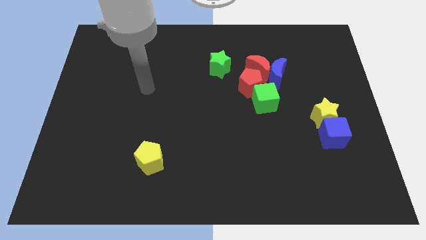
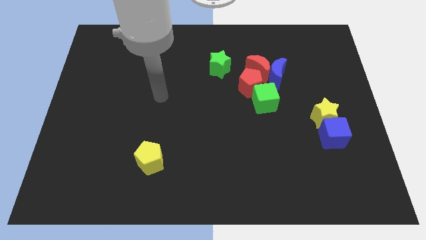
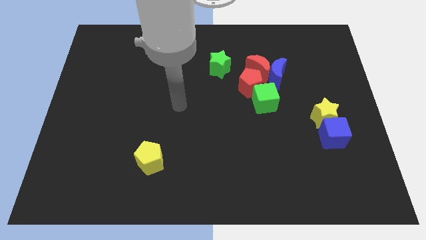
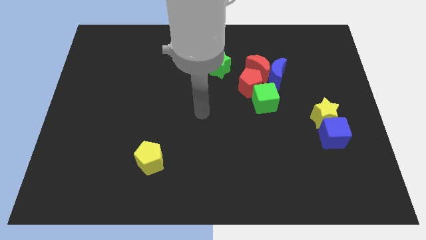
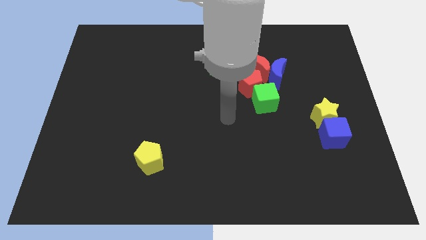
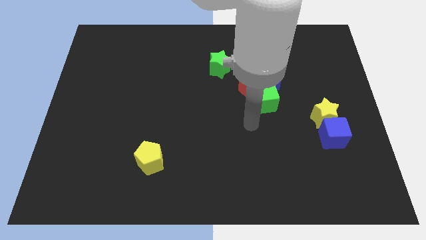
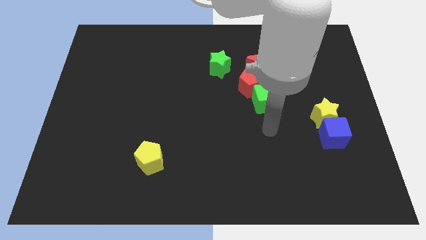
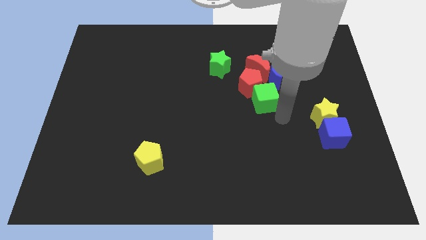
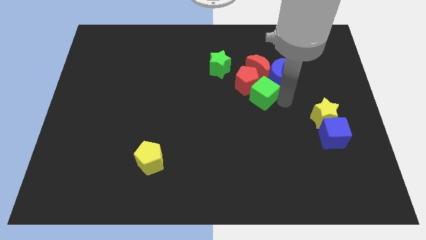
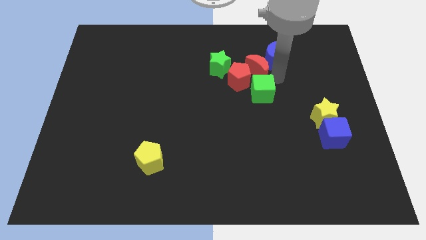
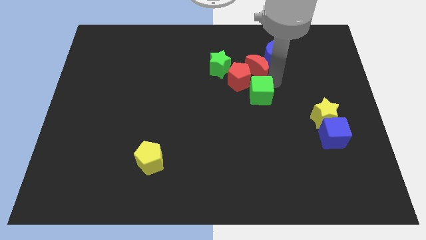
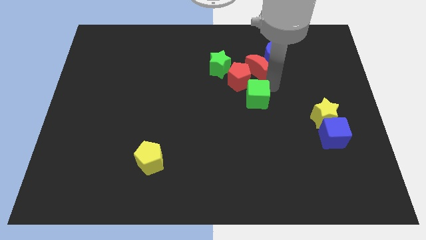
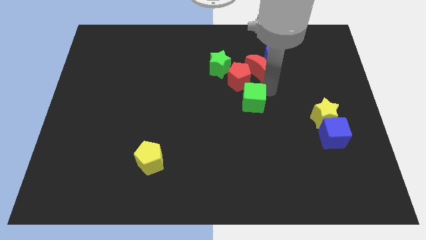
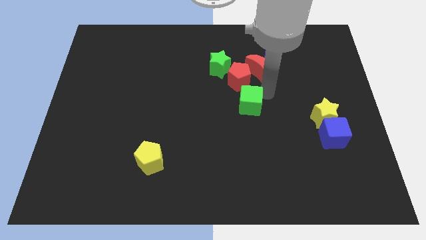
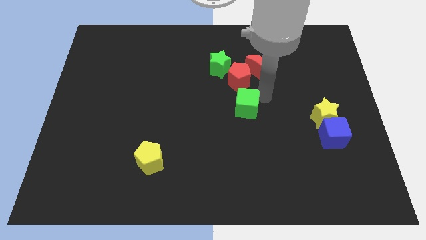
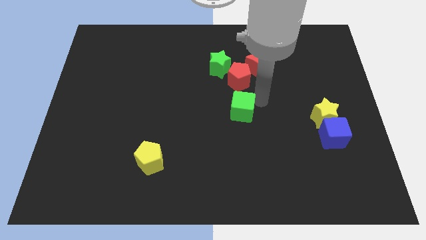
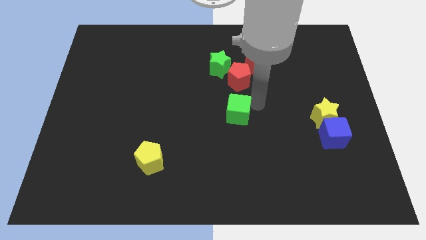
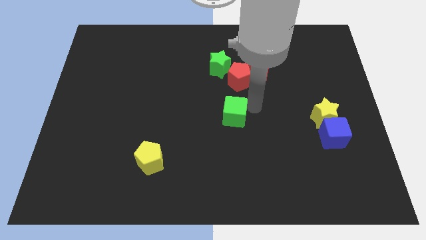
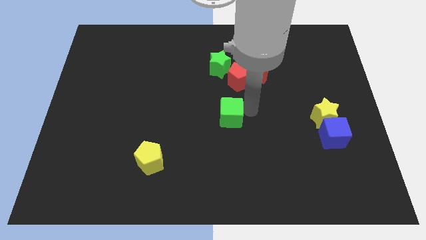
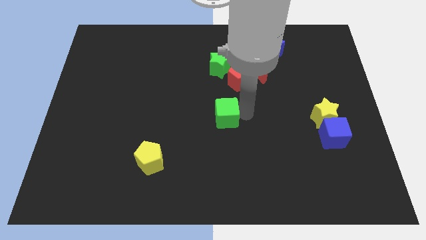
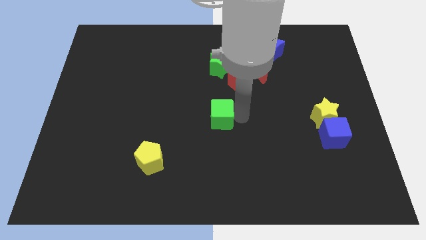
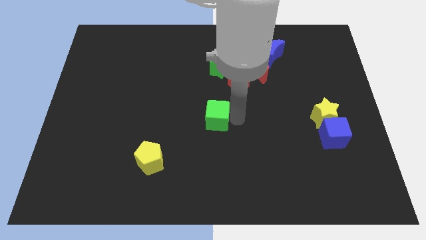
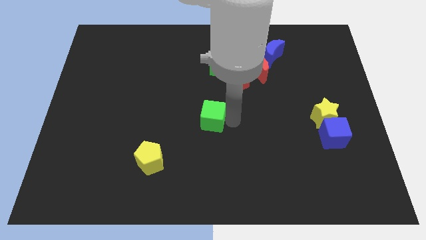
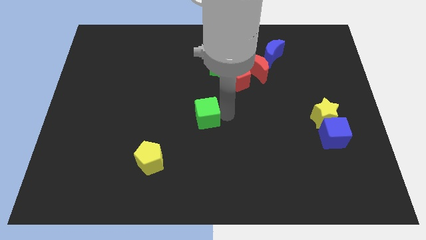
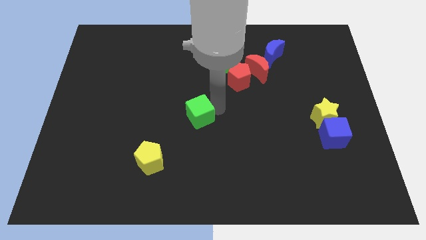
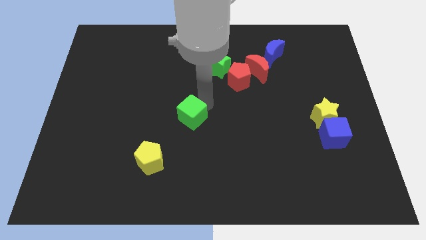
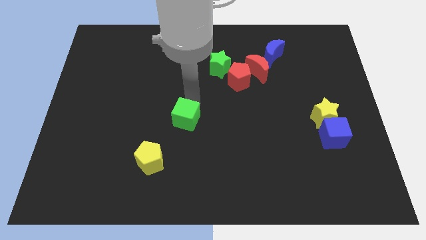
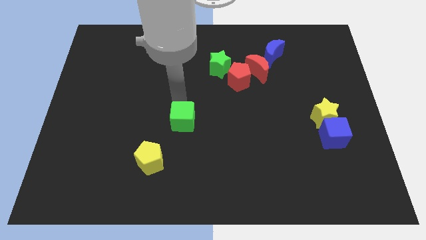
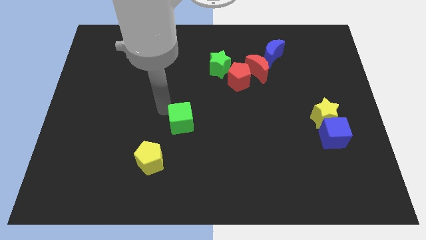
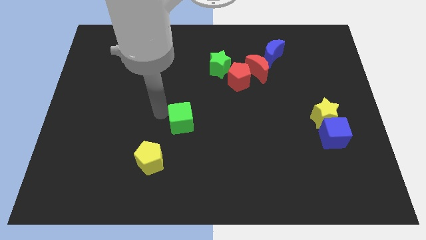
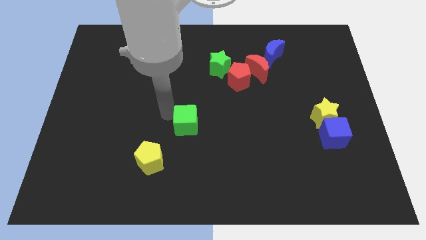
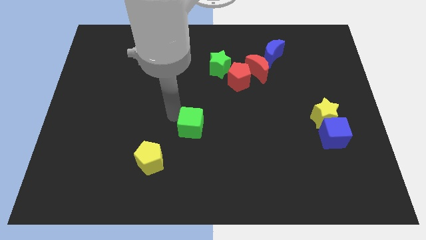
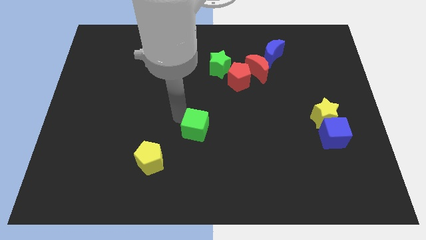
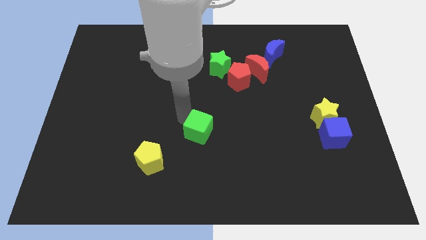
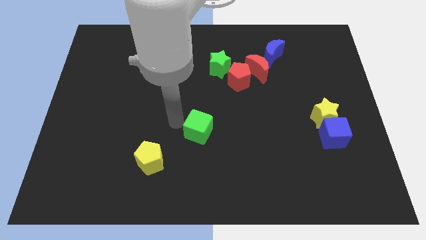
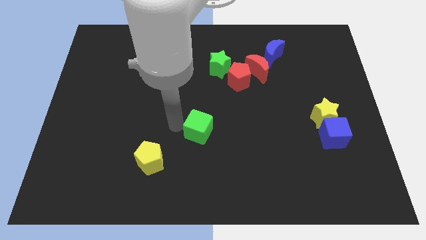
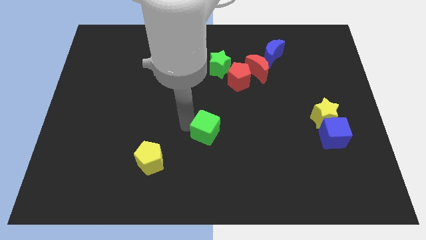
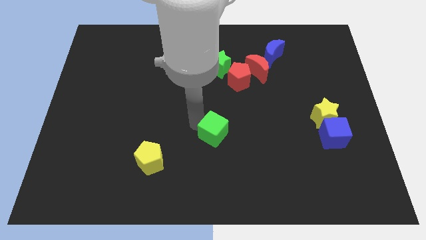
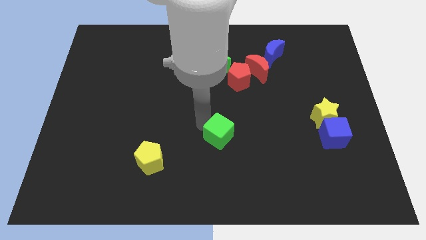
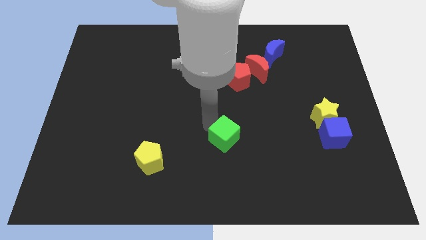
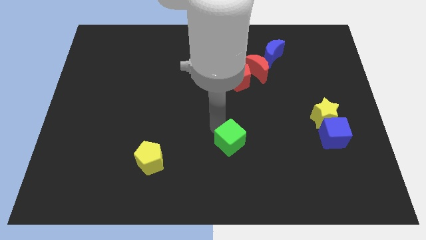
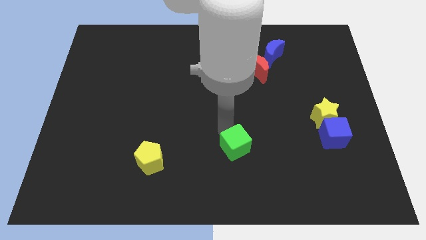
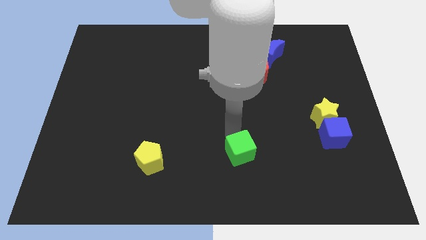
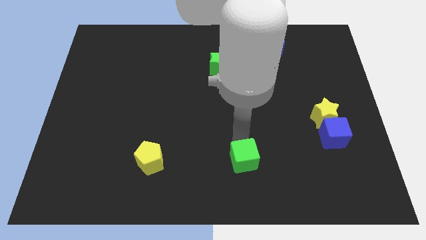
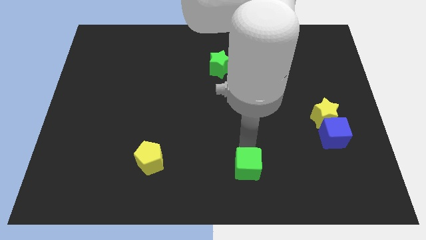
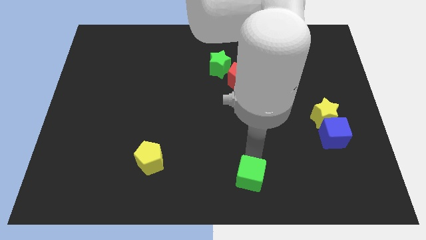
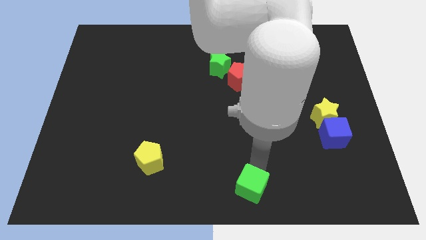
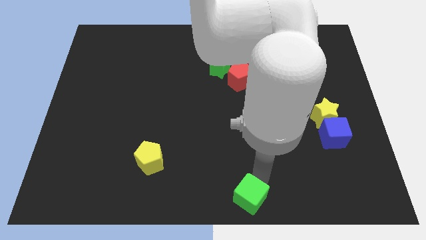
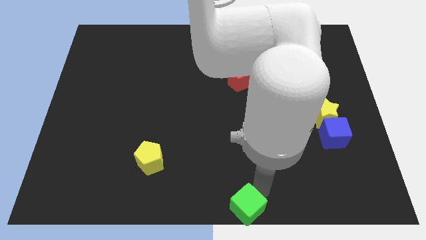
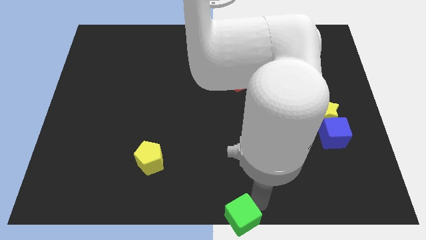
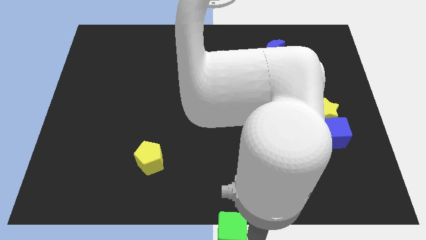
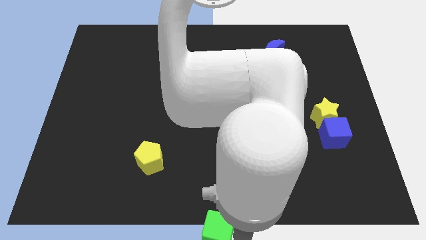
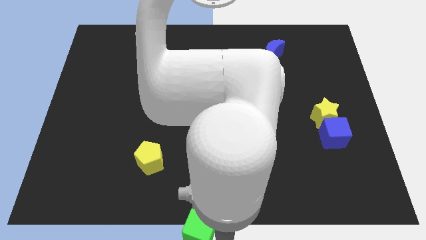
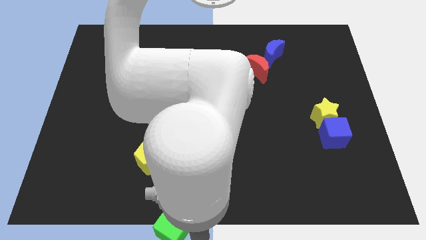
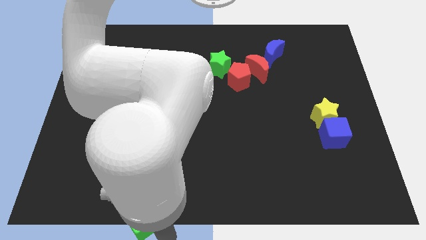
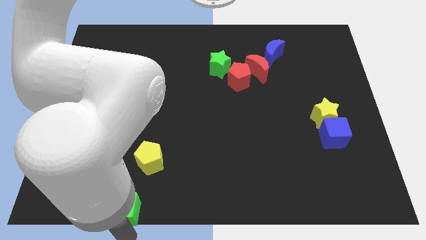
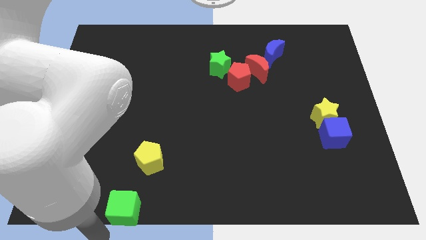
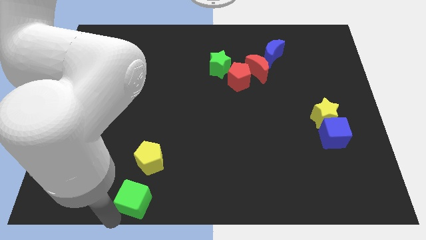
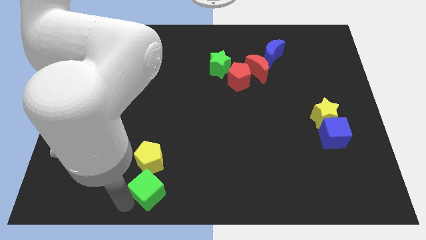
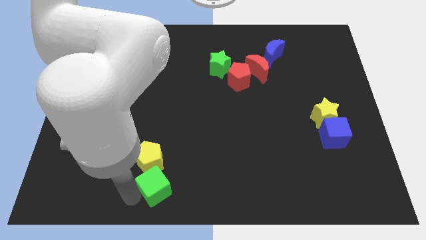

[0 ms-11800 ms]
push the green cube close to the yellow pentagon

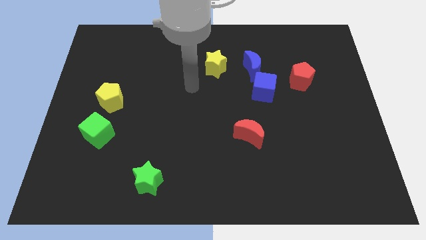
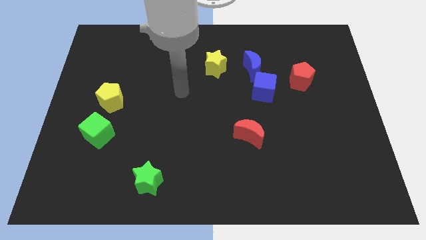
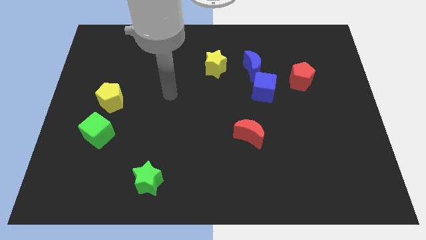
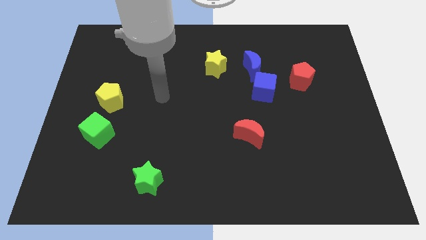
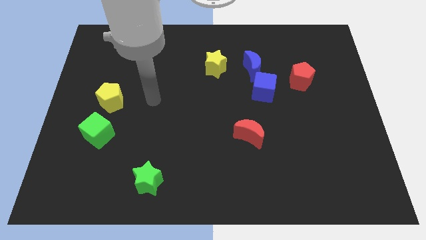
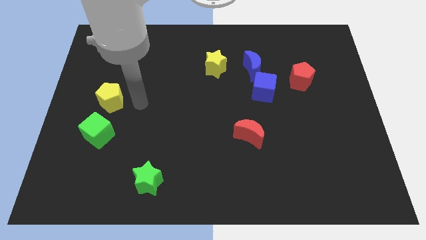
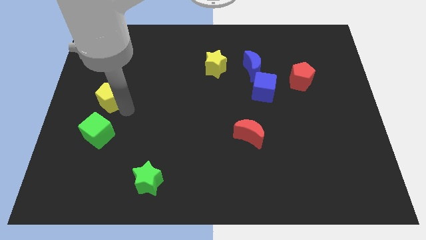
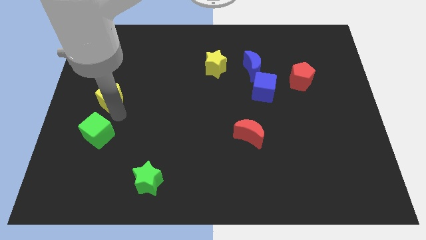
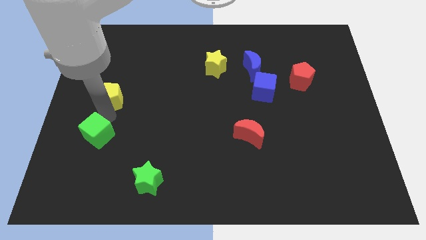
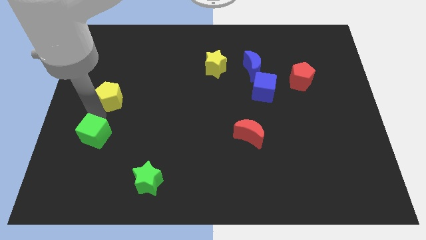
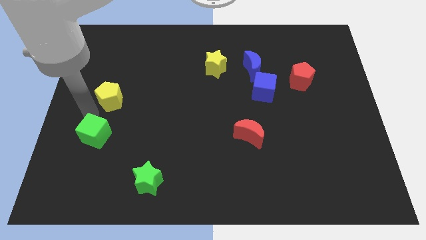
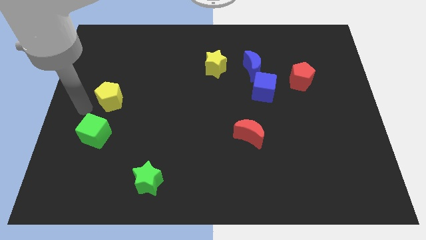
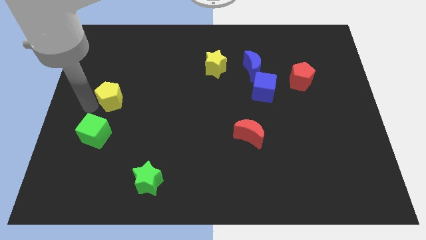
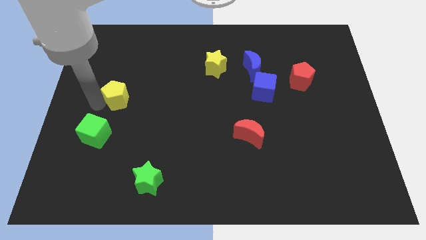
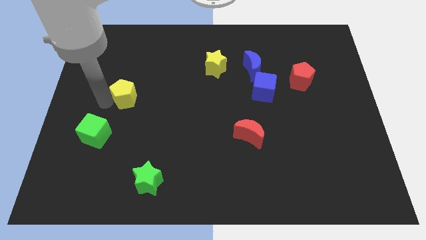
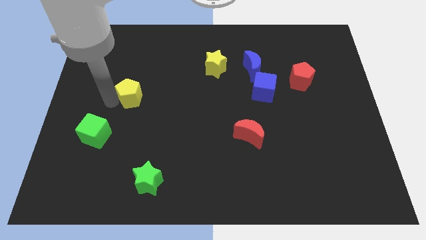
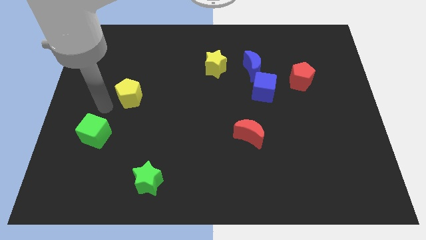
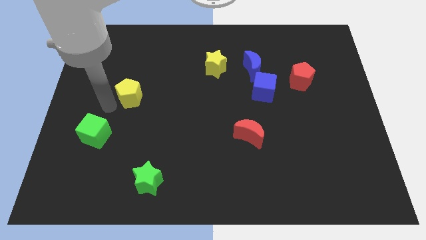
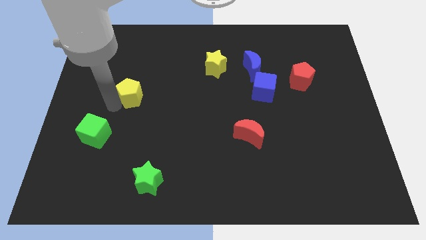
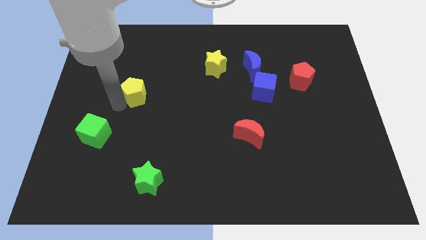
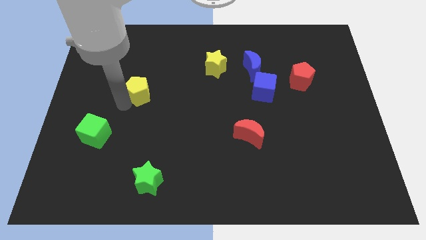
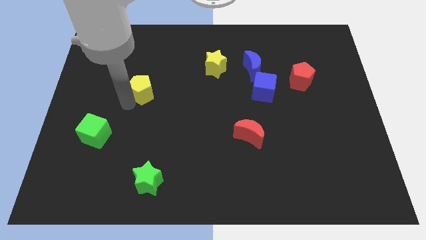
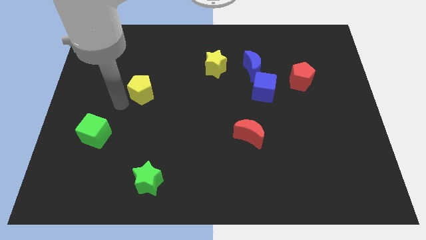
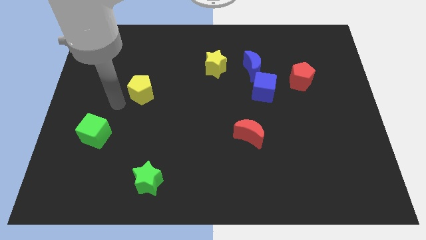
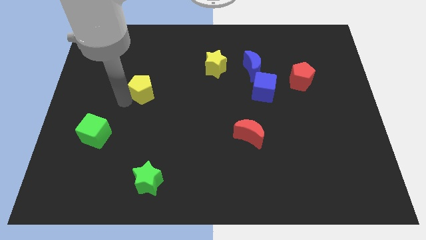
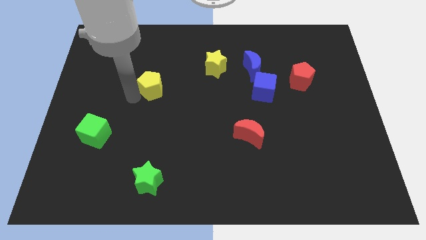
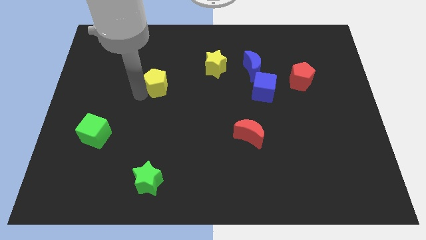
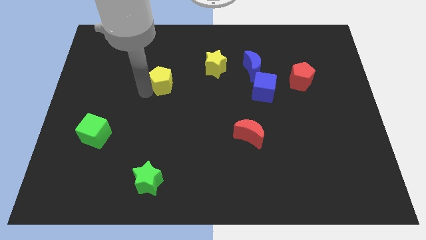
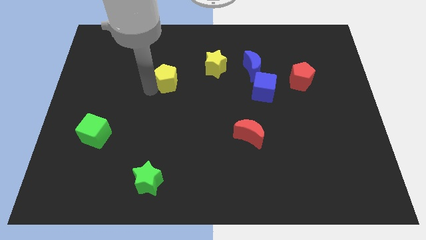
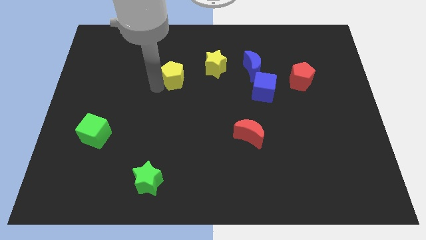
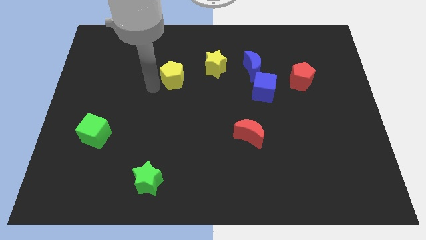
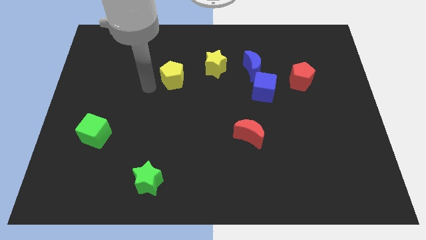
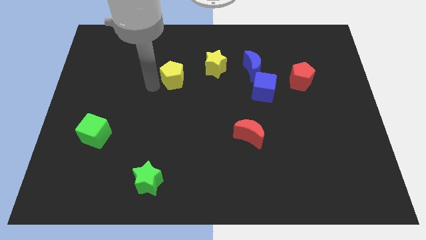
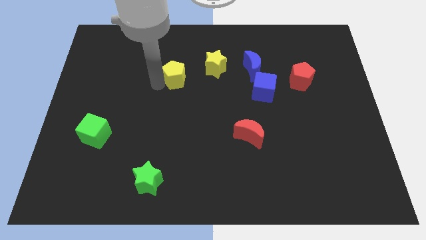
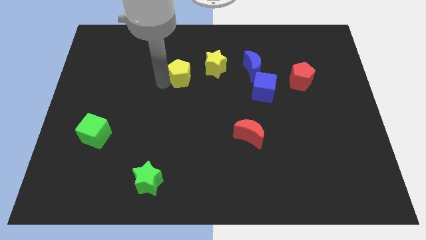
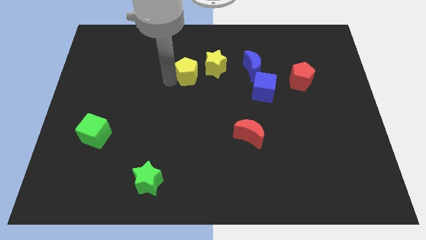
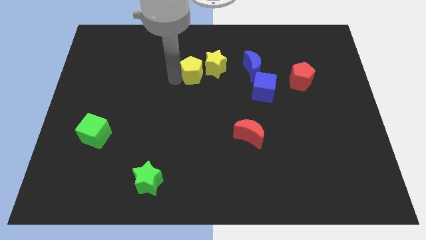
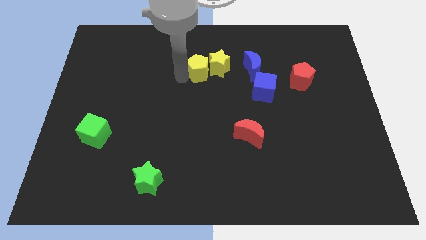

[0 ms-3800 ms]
slide the yellow pentagon close to the yellow star
